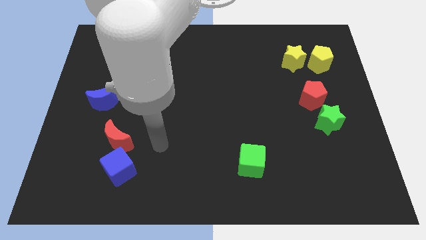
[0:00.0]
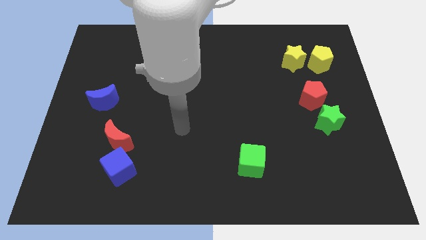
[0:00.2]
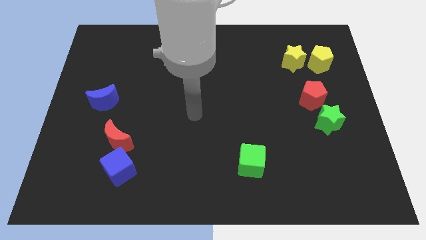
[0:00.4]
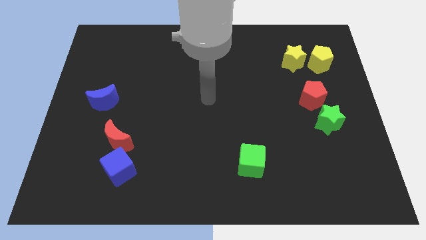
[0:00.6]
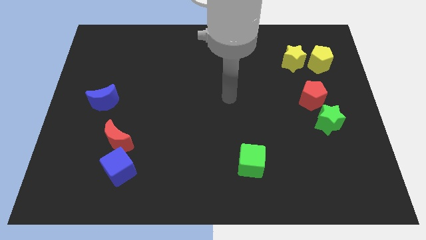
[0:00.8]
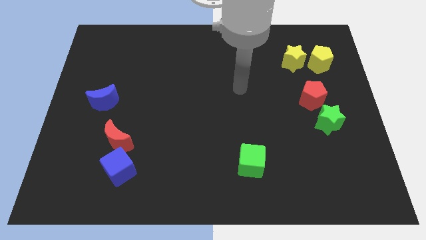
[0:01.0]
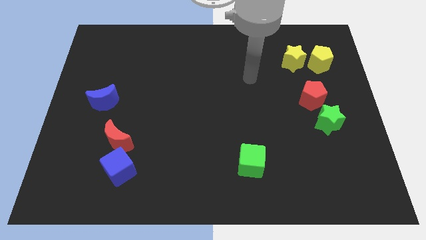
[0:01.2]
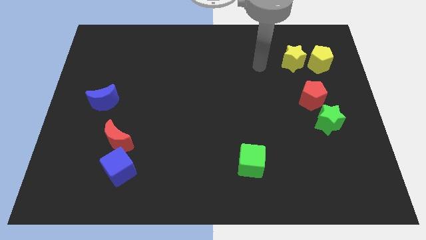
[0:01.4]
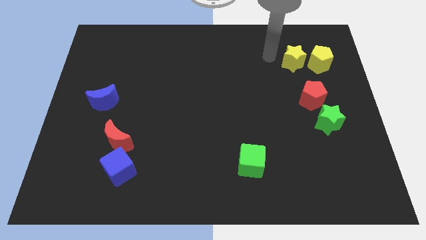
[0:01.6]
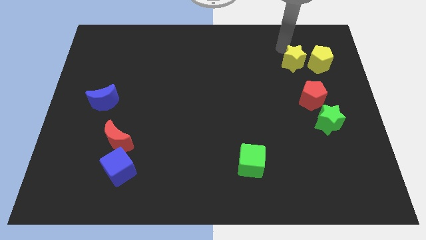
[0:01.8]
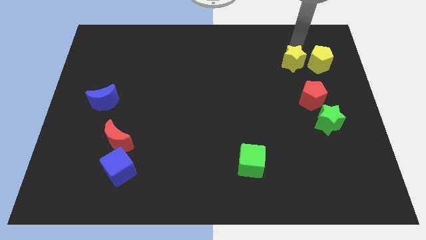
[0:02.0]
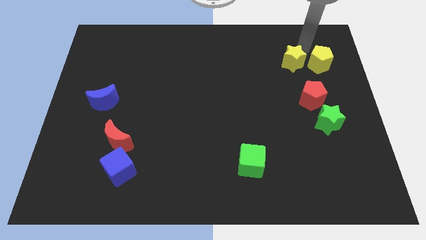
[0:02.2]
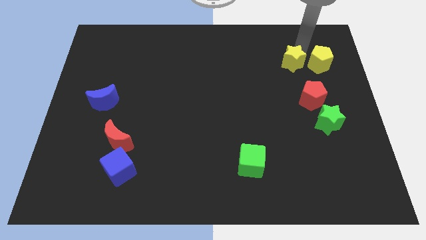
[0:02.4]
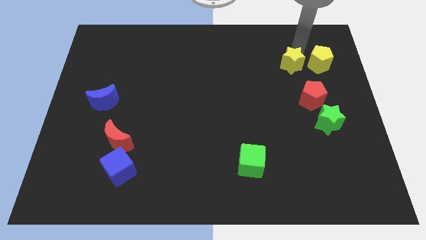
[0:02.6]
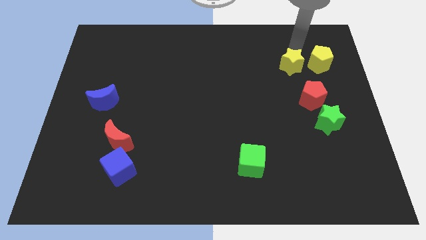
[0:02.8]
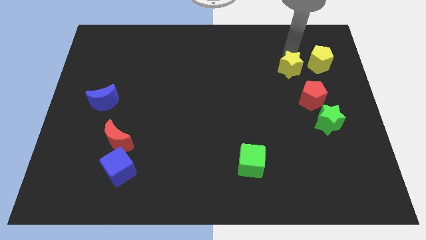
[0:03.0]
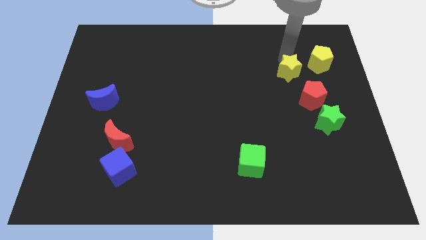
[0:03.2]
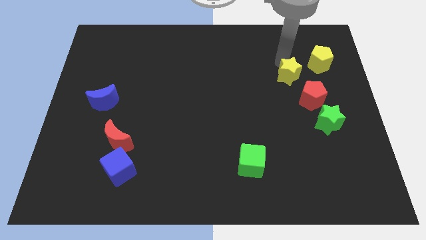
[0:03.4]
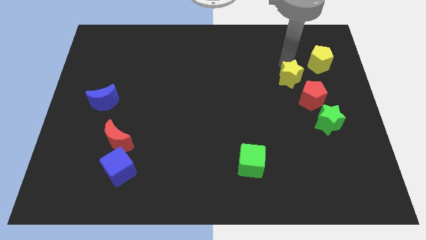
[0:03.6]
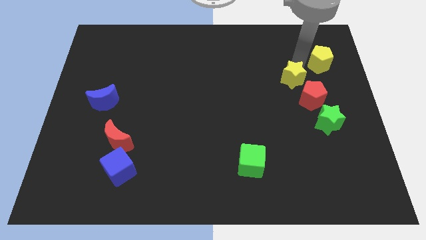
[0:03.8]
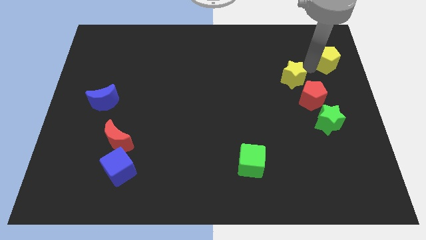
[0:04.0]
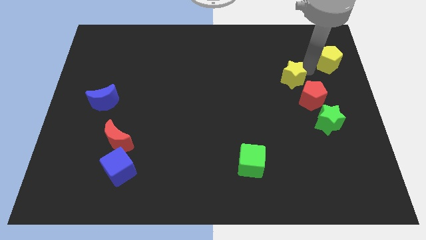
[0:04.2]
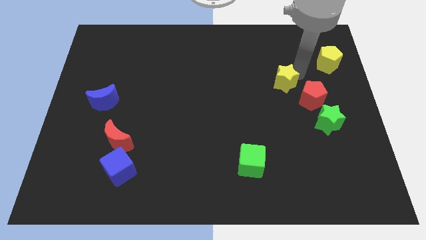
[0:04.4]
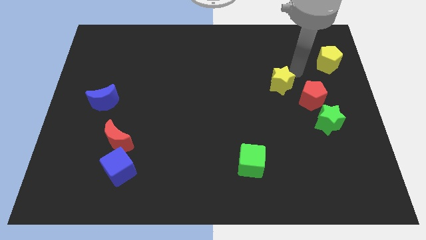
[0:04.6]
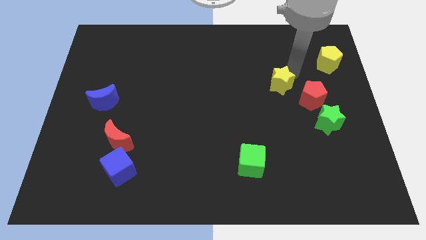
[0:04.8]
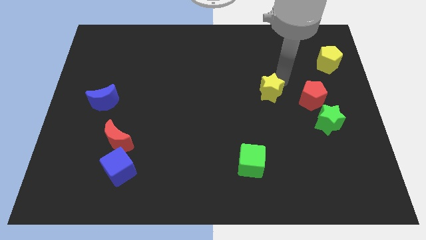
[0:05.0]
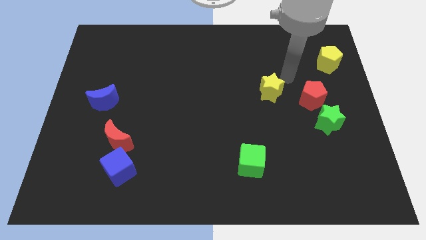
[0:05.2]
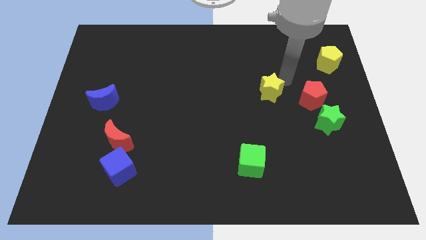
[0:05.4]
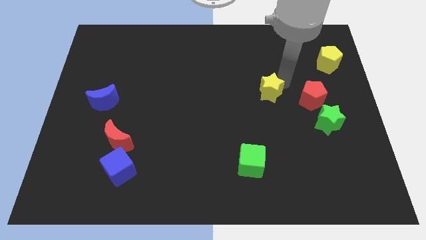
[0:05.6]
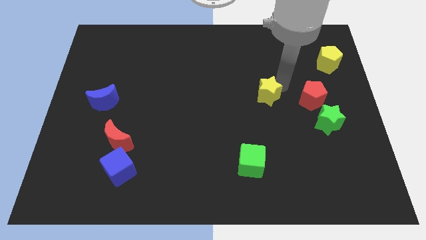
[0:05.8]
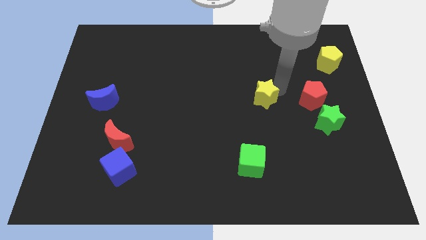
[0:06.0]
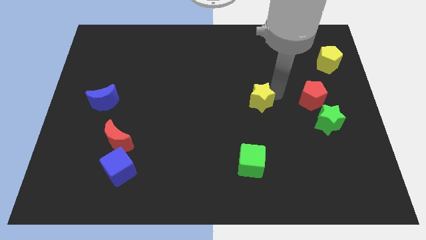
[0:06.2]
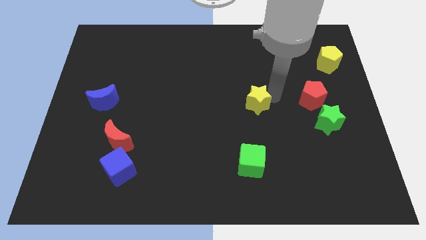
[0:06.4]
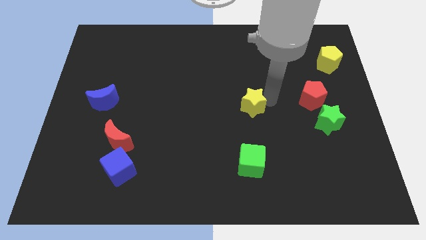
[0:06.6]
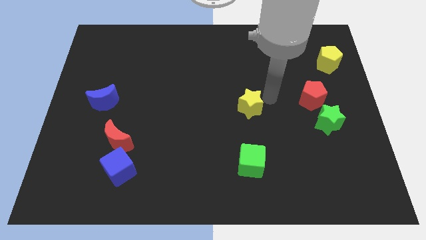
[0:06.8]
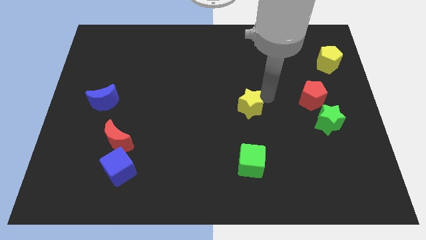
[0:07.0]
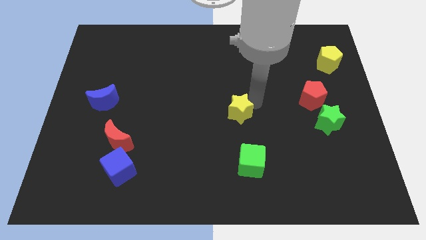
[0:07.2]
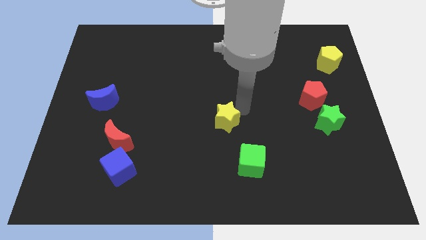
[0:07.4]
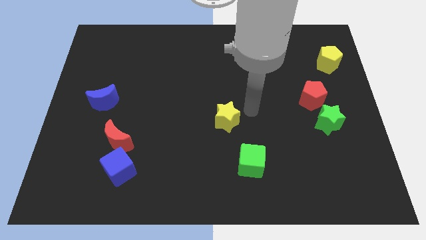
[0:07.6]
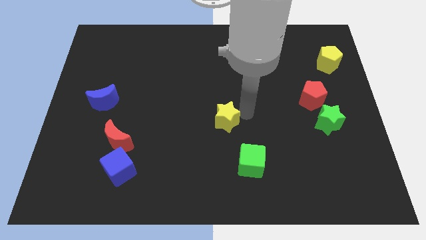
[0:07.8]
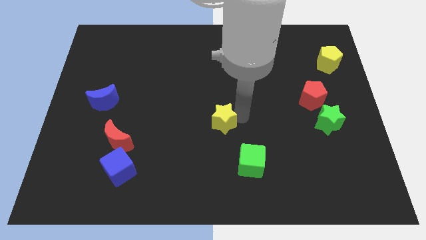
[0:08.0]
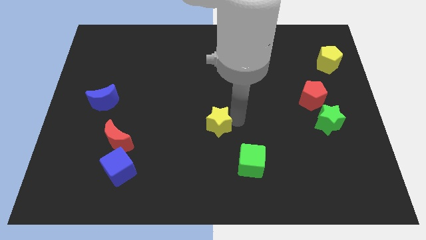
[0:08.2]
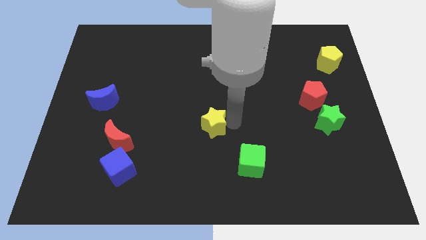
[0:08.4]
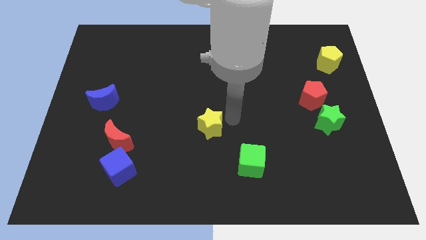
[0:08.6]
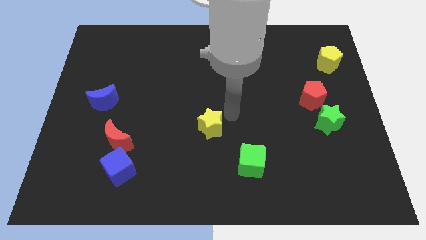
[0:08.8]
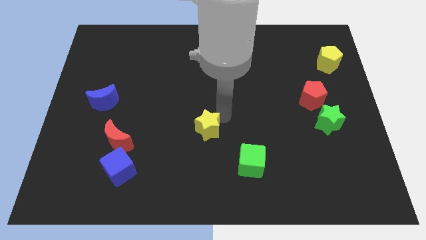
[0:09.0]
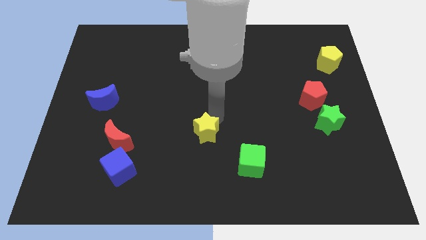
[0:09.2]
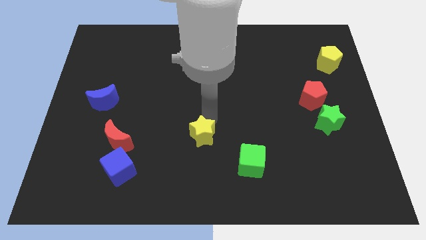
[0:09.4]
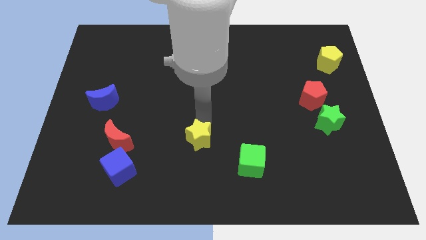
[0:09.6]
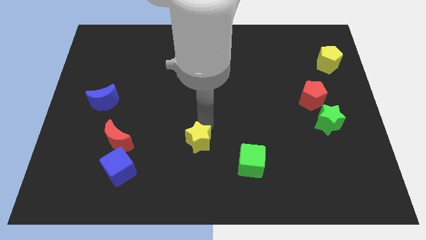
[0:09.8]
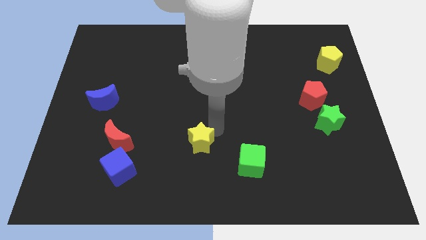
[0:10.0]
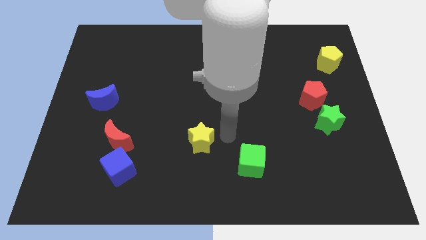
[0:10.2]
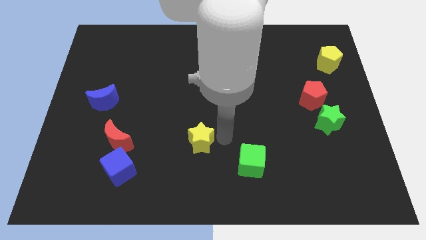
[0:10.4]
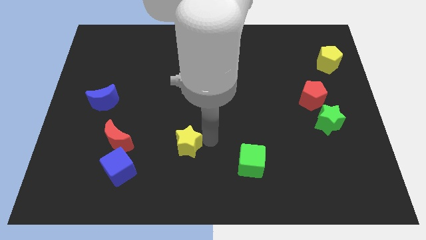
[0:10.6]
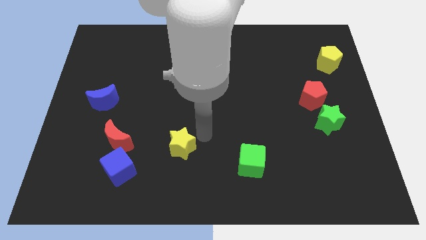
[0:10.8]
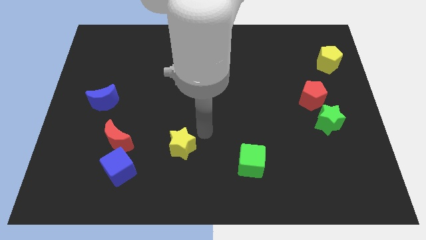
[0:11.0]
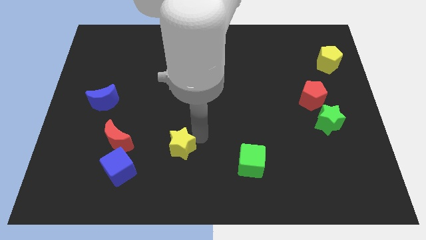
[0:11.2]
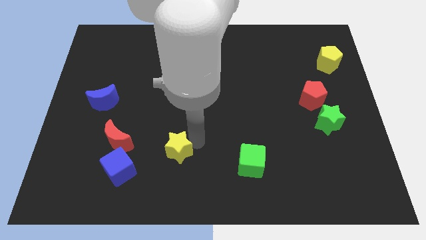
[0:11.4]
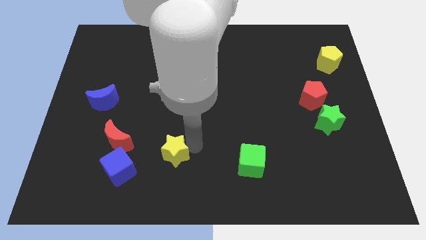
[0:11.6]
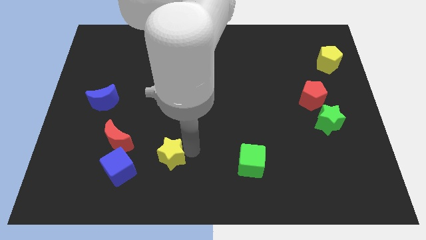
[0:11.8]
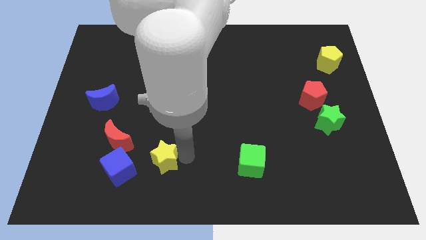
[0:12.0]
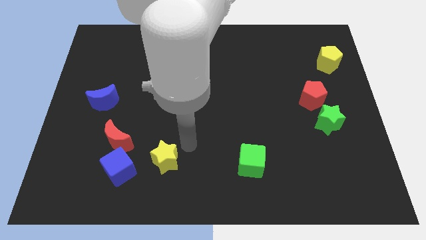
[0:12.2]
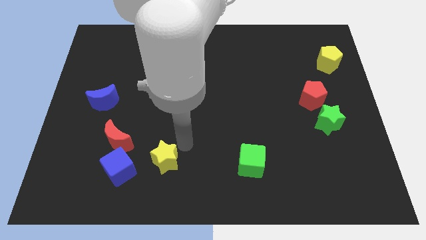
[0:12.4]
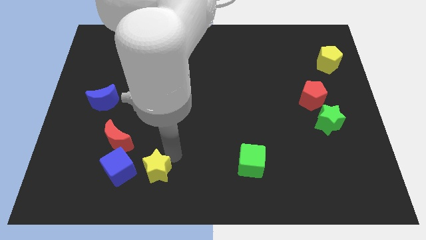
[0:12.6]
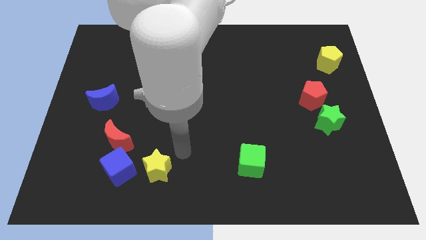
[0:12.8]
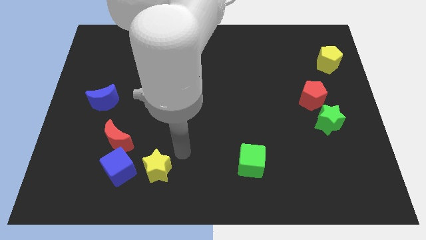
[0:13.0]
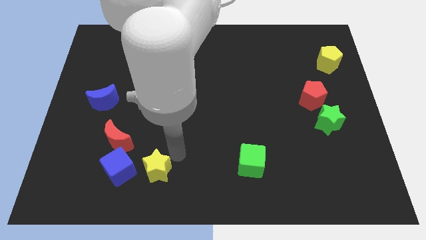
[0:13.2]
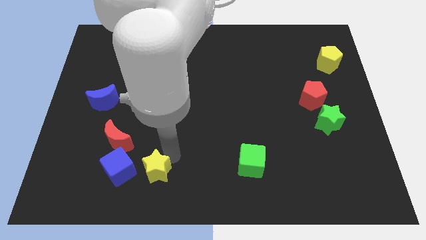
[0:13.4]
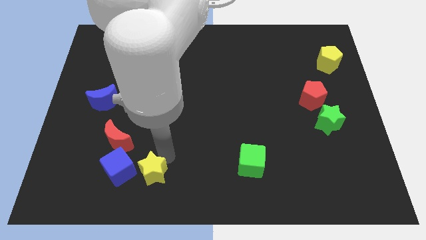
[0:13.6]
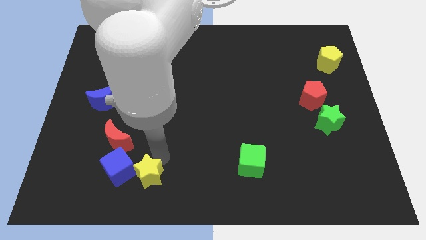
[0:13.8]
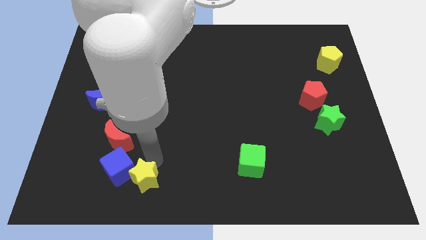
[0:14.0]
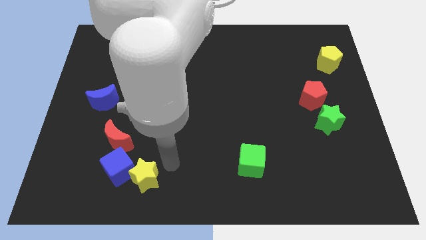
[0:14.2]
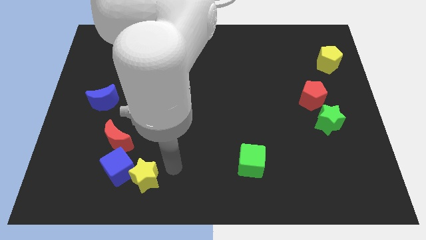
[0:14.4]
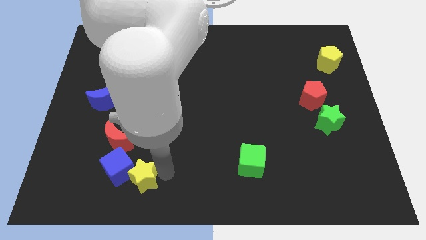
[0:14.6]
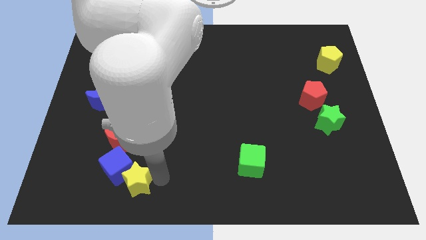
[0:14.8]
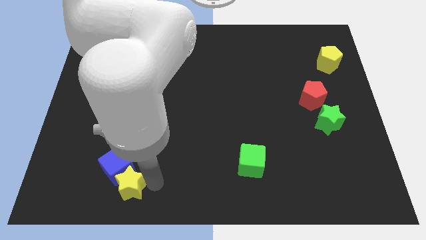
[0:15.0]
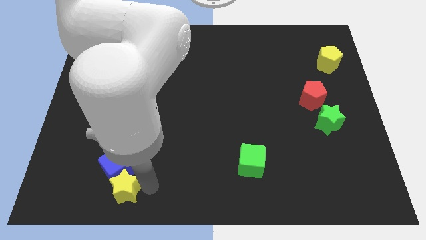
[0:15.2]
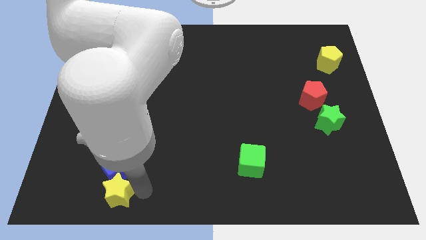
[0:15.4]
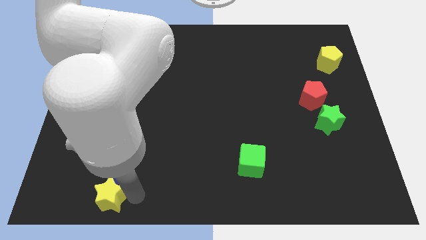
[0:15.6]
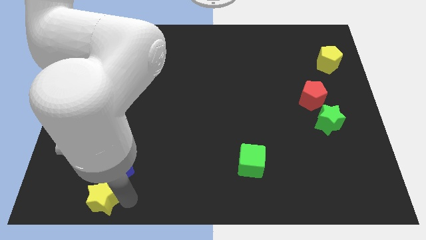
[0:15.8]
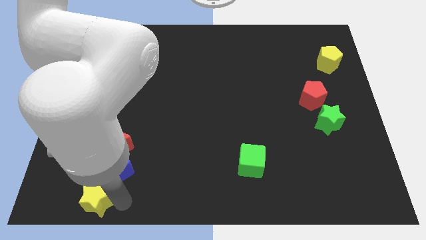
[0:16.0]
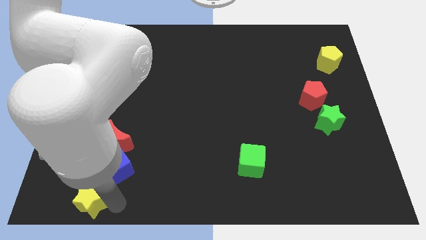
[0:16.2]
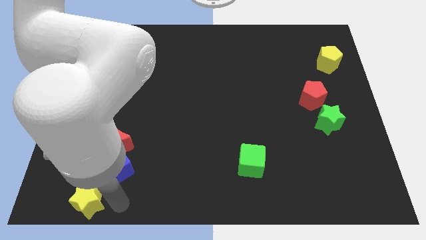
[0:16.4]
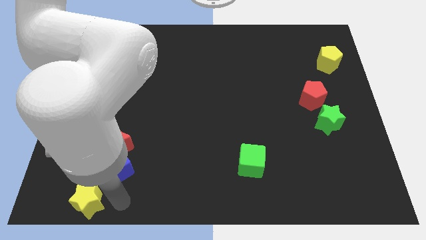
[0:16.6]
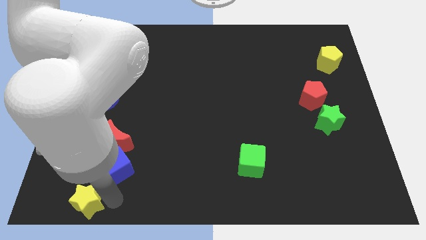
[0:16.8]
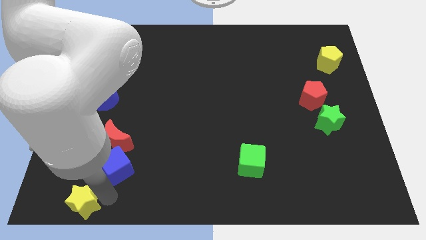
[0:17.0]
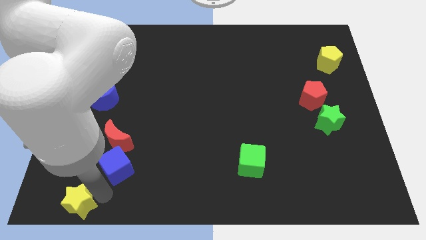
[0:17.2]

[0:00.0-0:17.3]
move the yellow star to the bottom left corner
